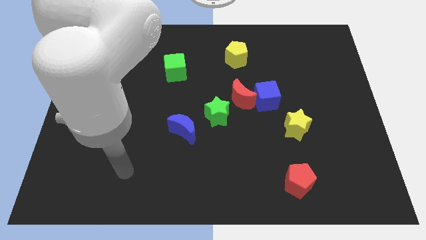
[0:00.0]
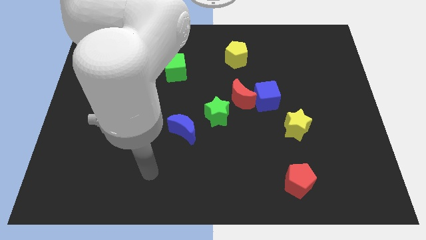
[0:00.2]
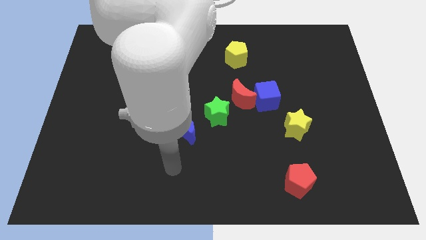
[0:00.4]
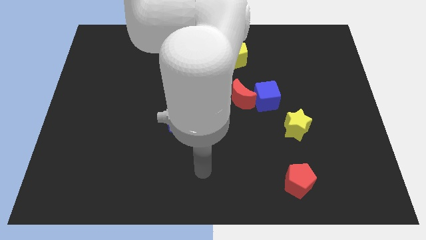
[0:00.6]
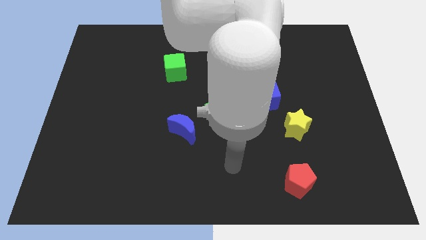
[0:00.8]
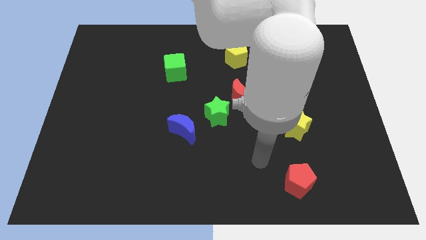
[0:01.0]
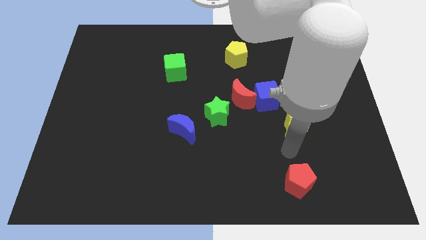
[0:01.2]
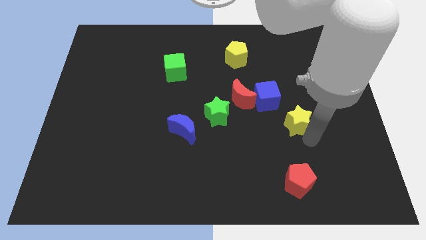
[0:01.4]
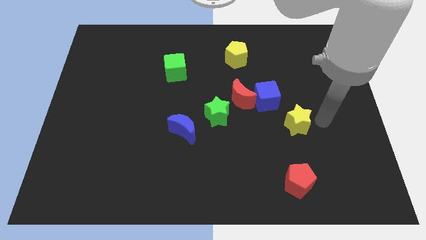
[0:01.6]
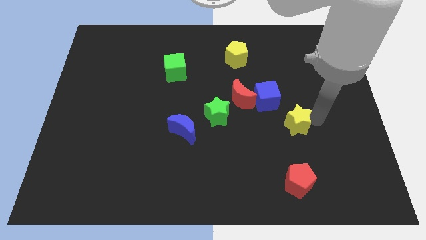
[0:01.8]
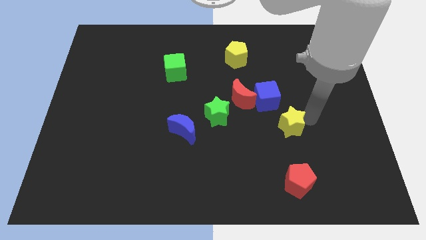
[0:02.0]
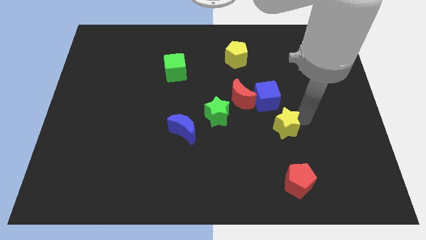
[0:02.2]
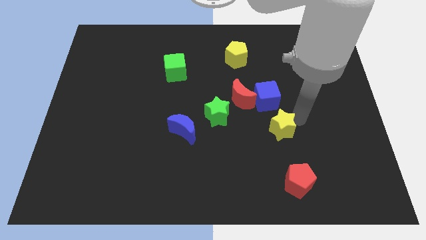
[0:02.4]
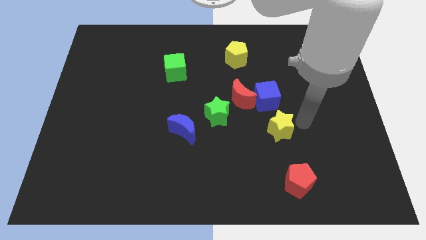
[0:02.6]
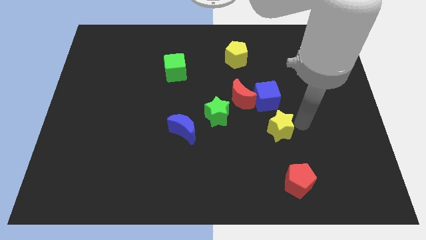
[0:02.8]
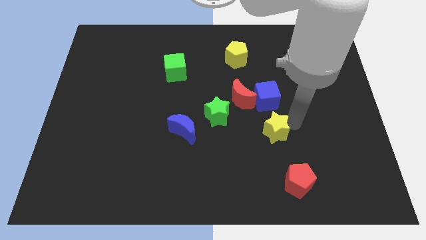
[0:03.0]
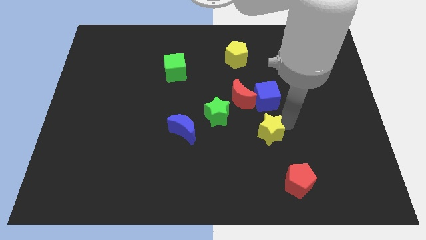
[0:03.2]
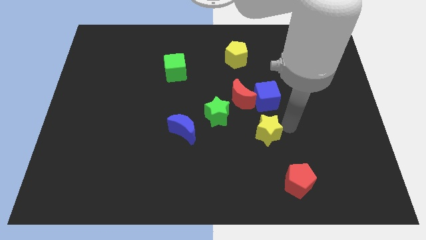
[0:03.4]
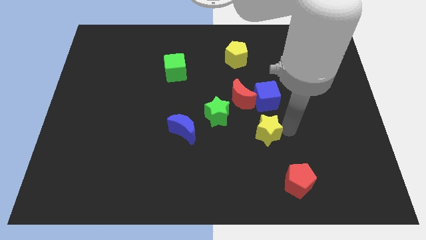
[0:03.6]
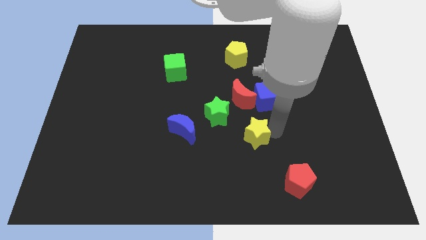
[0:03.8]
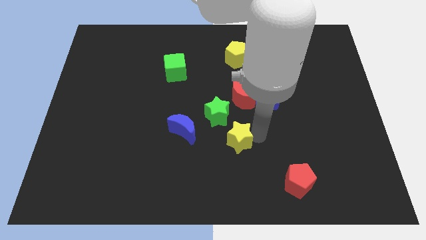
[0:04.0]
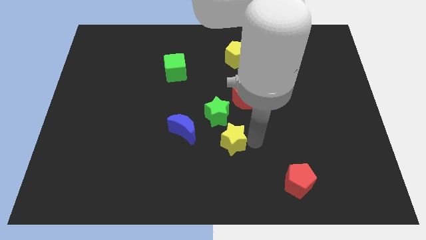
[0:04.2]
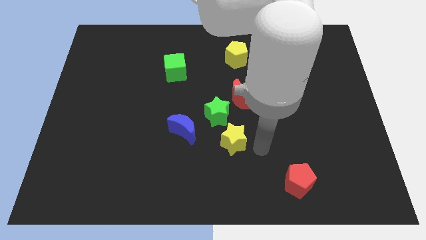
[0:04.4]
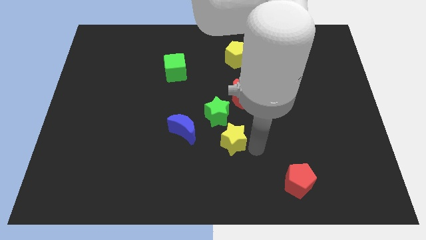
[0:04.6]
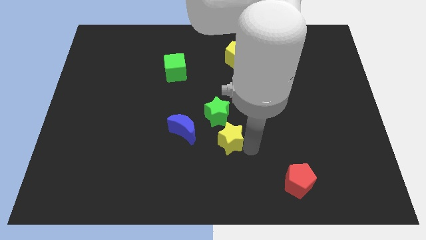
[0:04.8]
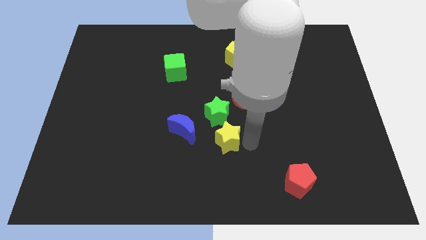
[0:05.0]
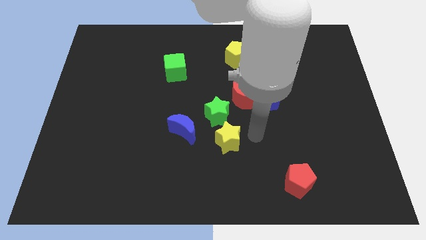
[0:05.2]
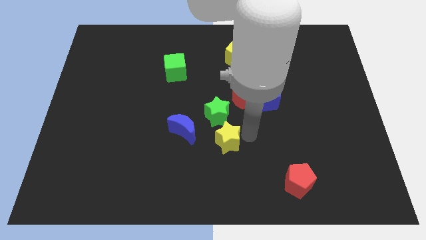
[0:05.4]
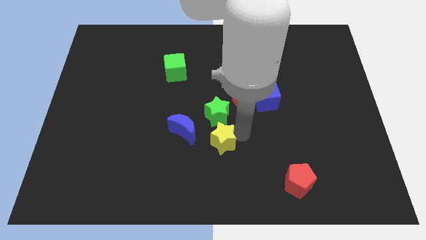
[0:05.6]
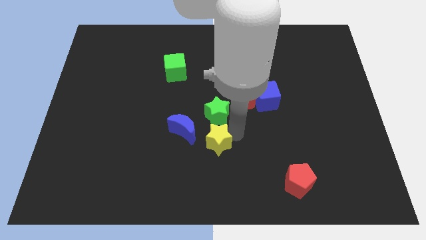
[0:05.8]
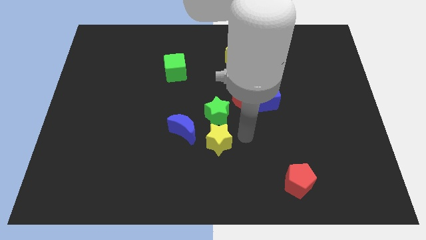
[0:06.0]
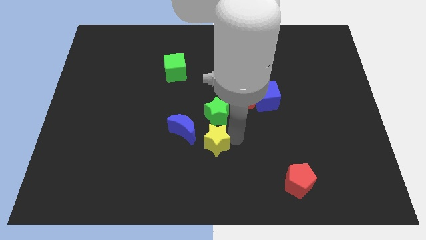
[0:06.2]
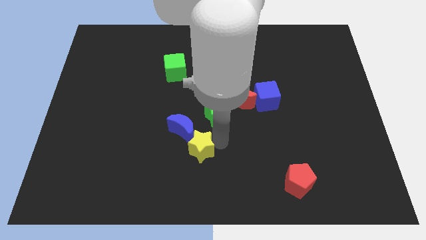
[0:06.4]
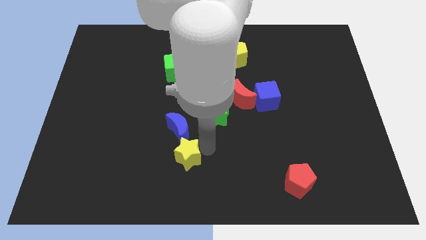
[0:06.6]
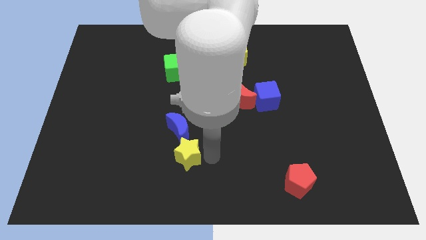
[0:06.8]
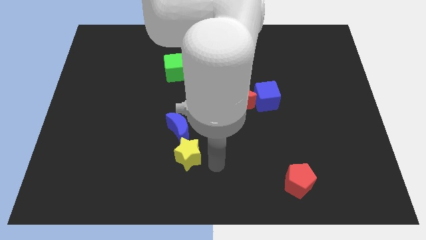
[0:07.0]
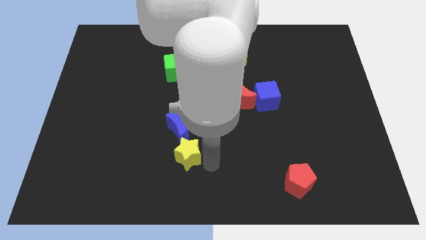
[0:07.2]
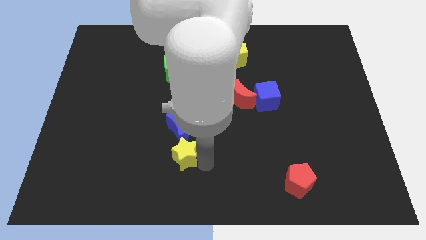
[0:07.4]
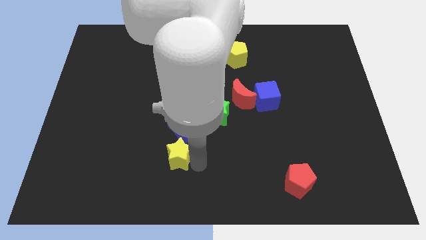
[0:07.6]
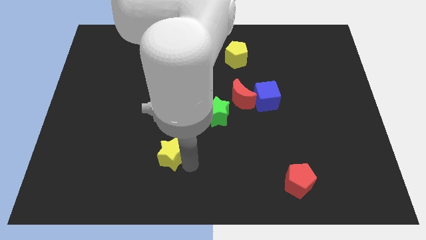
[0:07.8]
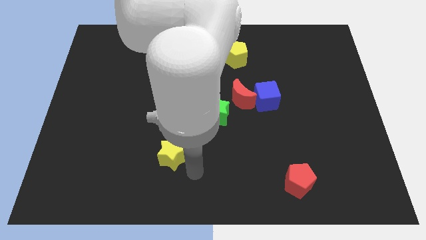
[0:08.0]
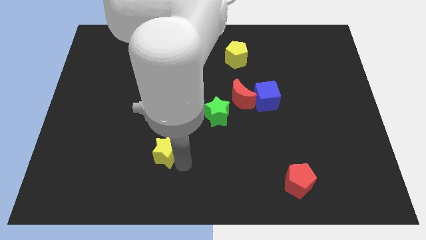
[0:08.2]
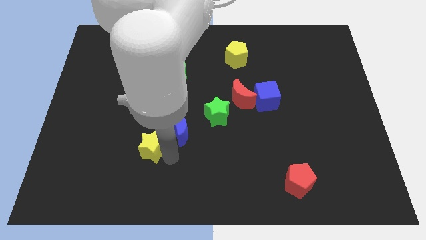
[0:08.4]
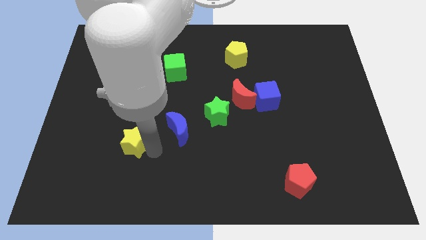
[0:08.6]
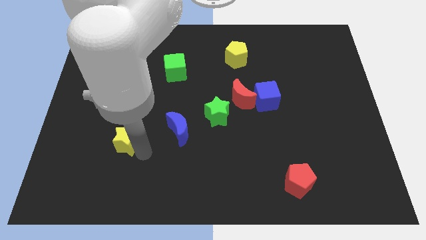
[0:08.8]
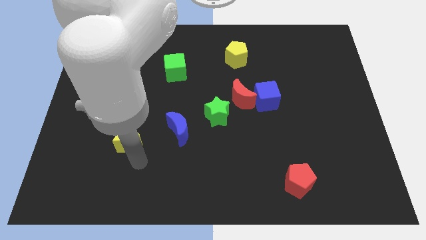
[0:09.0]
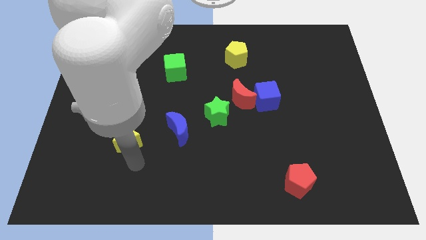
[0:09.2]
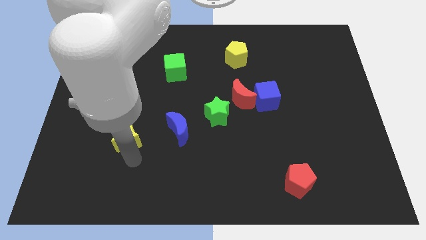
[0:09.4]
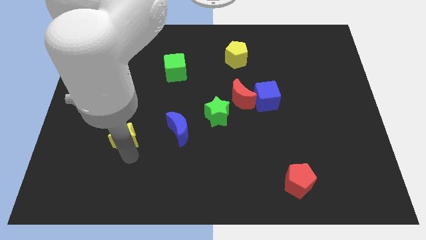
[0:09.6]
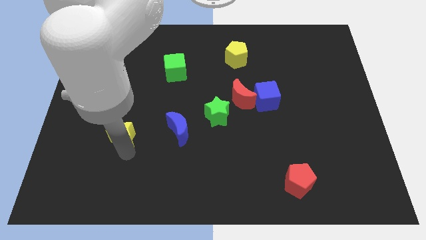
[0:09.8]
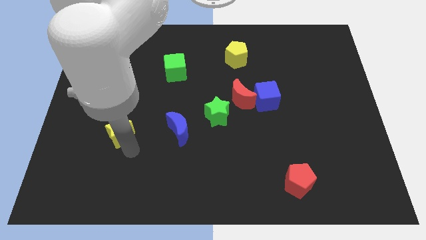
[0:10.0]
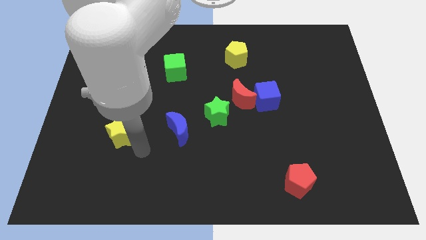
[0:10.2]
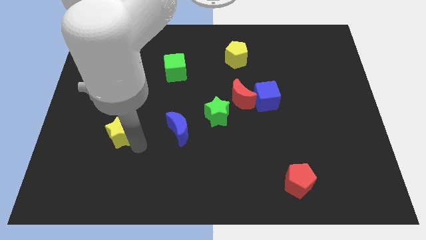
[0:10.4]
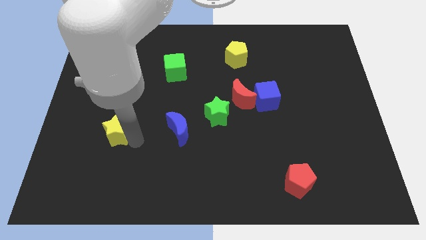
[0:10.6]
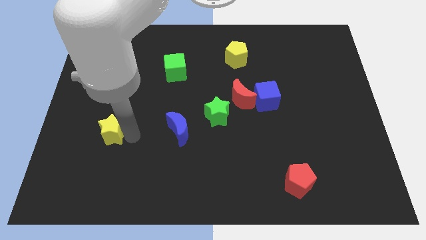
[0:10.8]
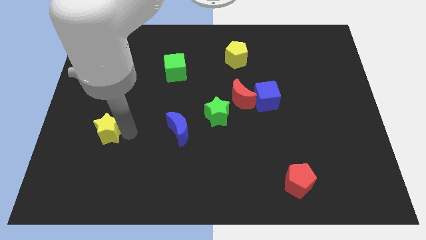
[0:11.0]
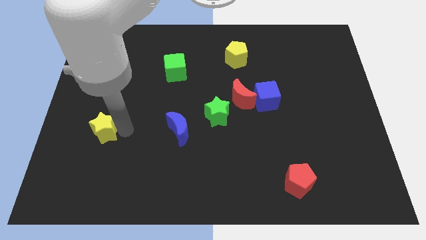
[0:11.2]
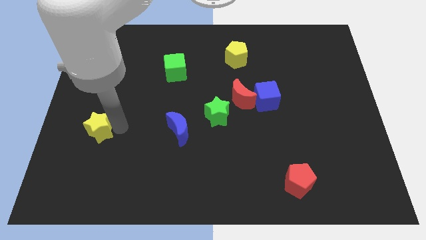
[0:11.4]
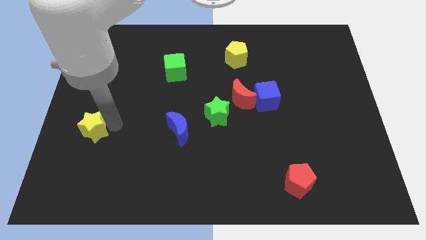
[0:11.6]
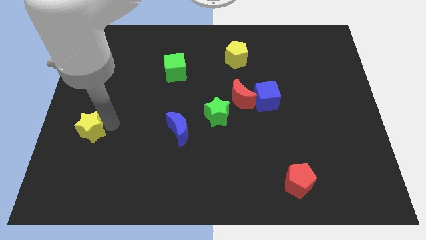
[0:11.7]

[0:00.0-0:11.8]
put the yellow star to the left side of the board
